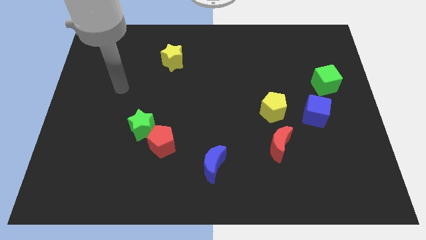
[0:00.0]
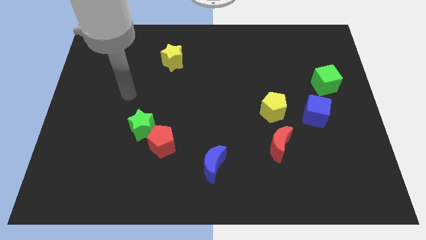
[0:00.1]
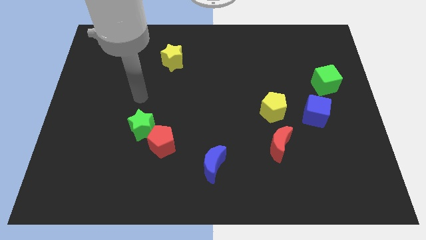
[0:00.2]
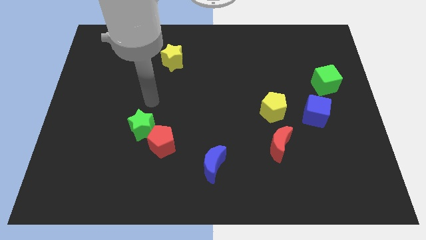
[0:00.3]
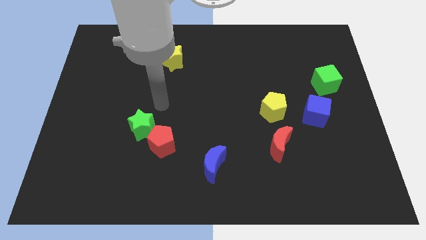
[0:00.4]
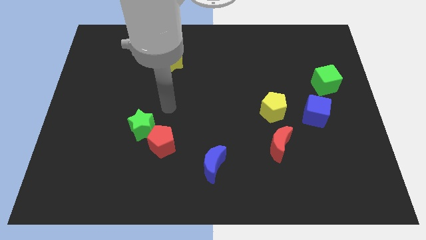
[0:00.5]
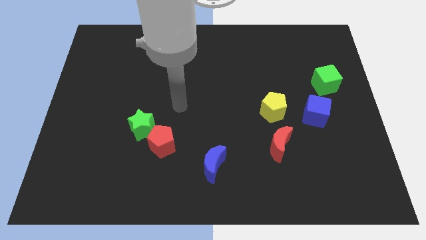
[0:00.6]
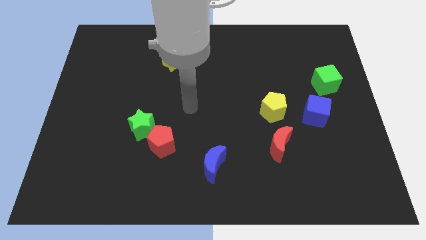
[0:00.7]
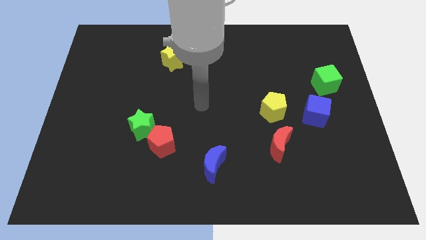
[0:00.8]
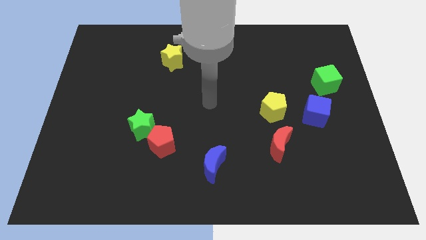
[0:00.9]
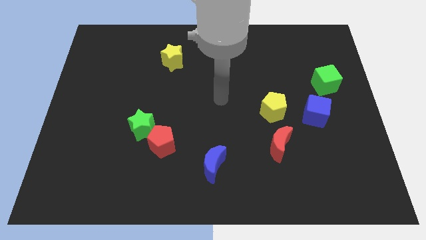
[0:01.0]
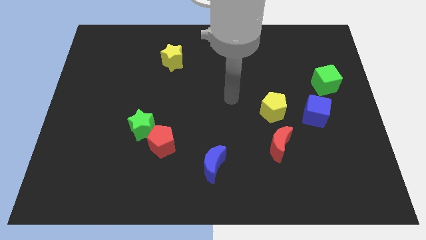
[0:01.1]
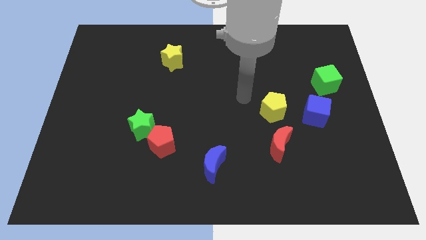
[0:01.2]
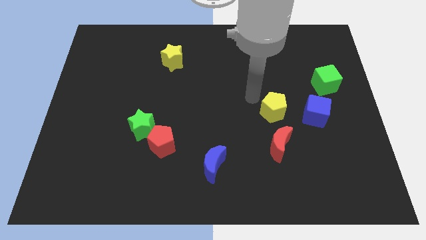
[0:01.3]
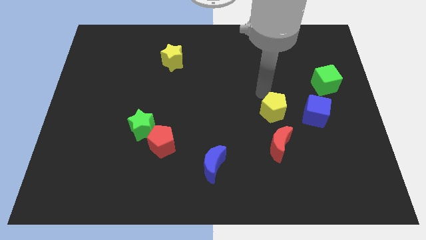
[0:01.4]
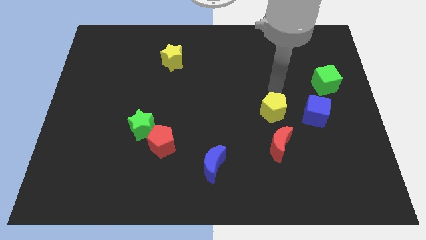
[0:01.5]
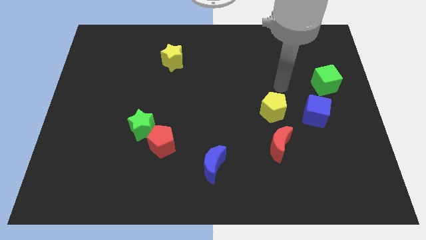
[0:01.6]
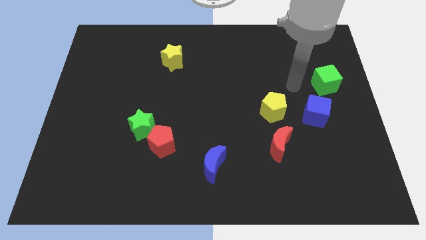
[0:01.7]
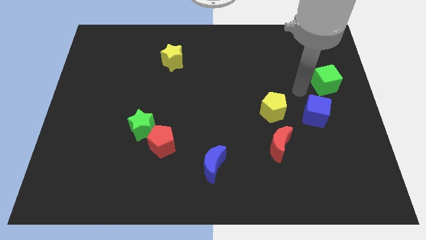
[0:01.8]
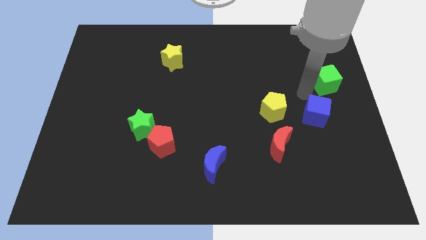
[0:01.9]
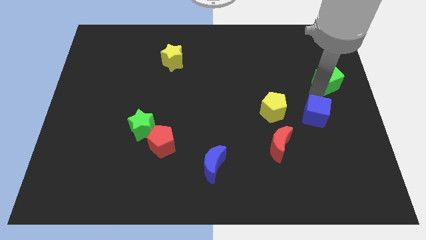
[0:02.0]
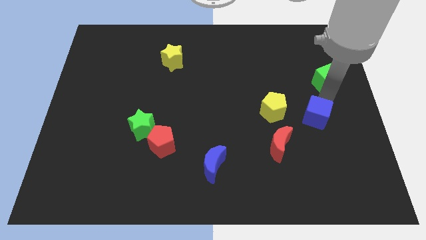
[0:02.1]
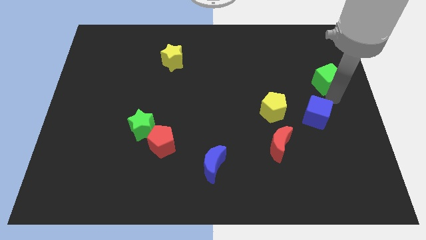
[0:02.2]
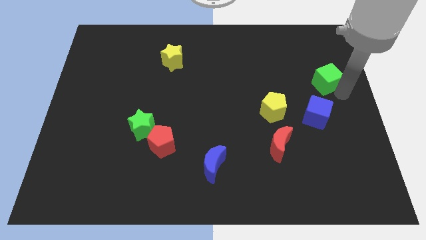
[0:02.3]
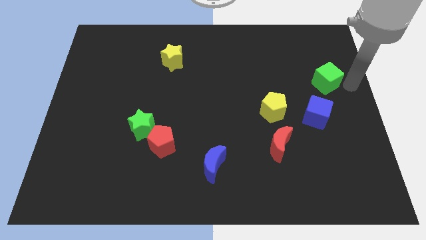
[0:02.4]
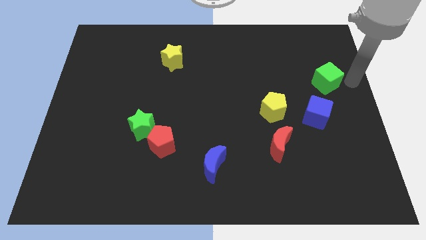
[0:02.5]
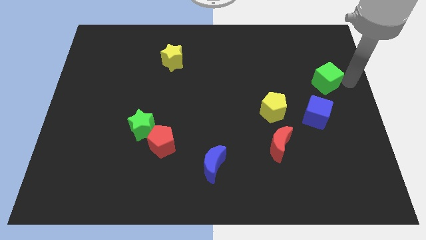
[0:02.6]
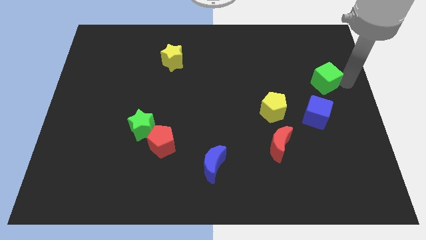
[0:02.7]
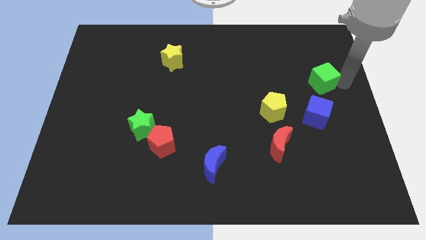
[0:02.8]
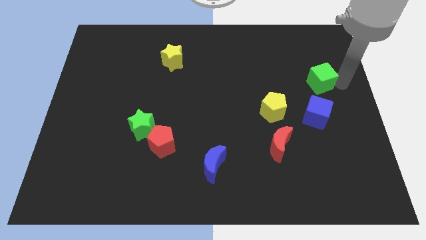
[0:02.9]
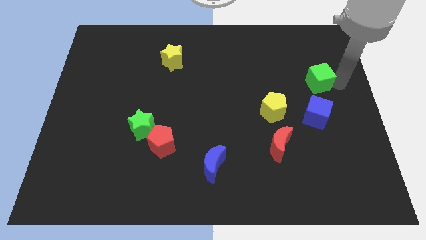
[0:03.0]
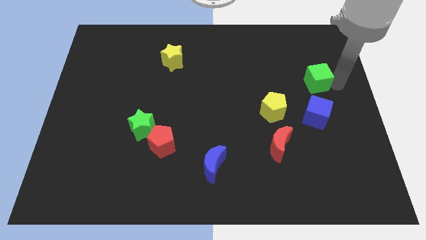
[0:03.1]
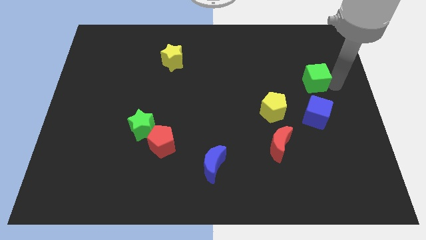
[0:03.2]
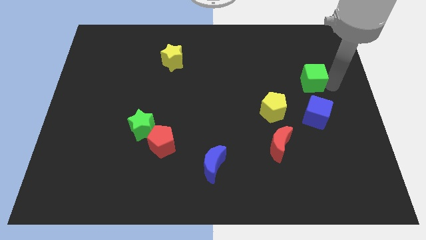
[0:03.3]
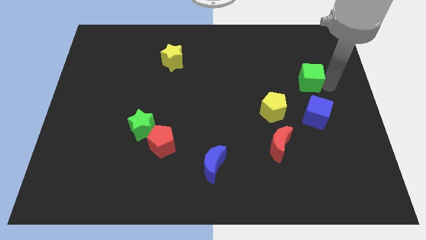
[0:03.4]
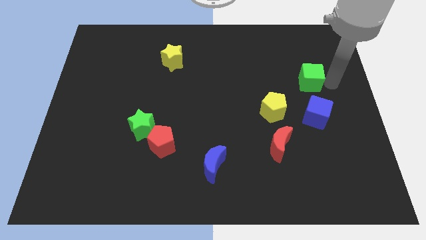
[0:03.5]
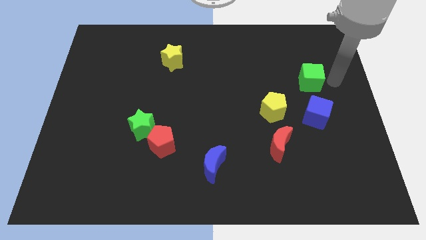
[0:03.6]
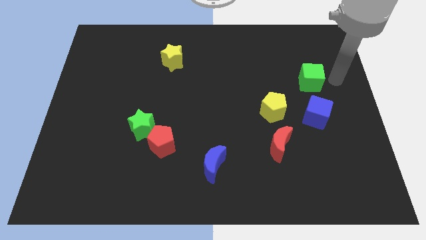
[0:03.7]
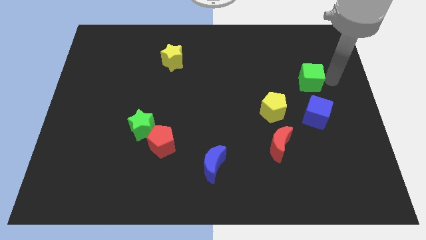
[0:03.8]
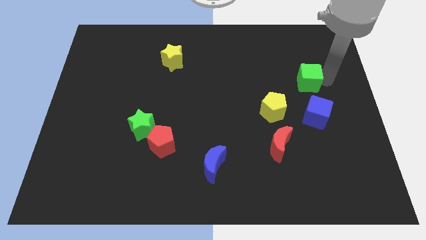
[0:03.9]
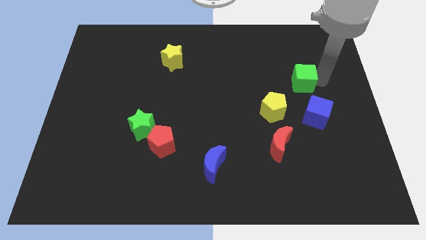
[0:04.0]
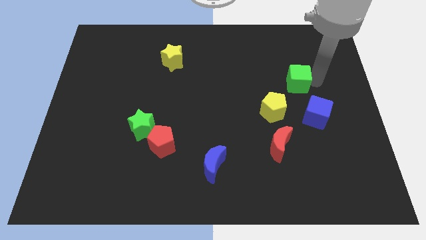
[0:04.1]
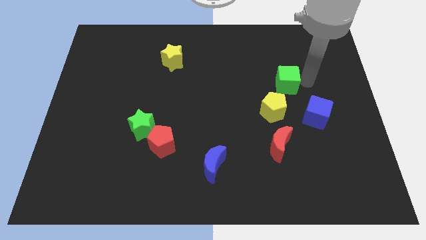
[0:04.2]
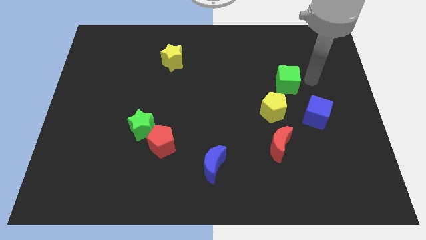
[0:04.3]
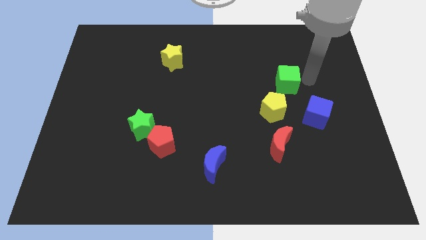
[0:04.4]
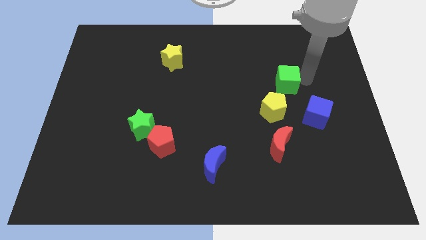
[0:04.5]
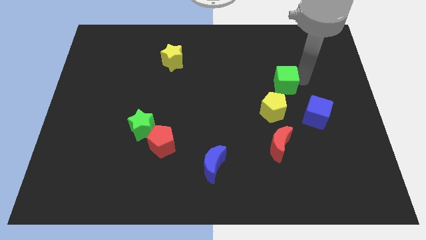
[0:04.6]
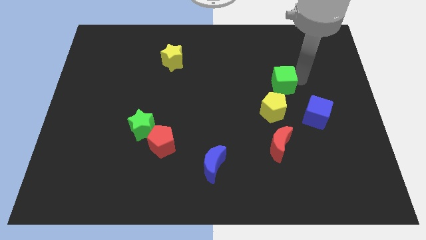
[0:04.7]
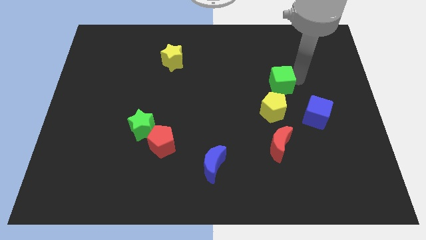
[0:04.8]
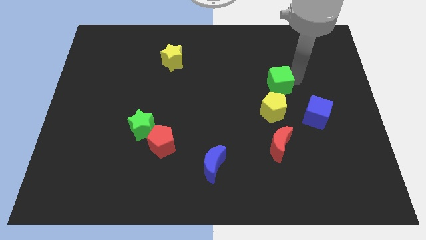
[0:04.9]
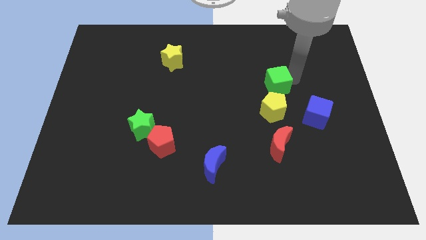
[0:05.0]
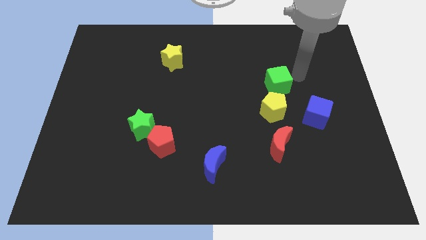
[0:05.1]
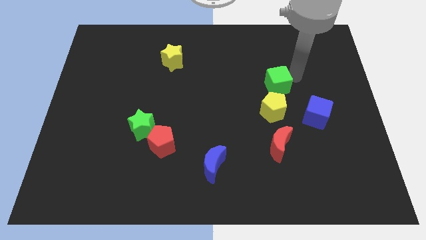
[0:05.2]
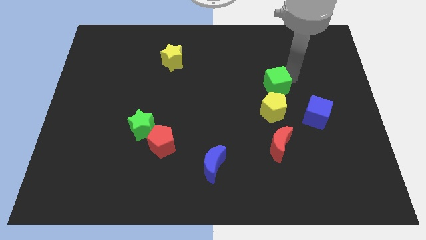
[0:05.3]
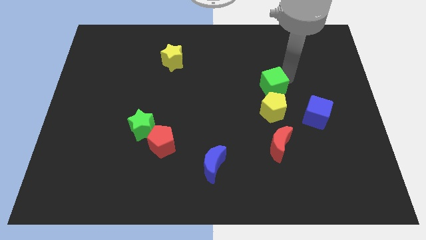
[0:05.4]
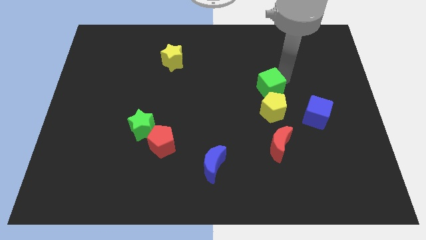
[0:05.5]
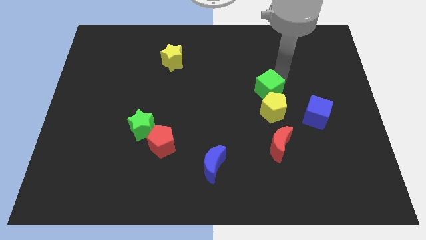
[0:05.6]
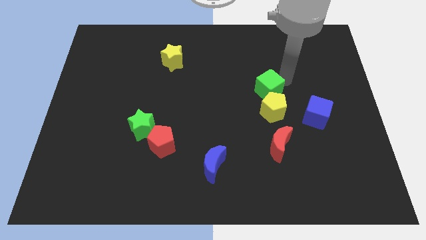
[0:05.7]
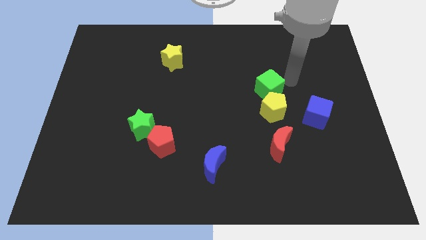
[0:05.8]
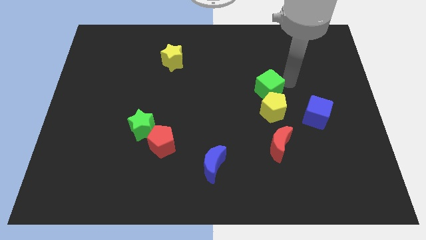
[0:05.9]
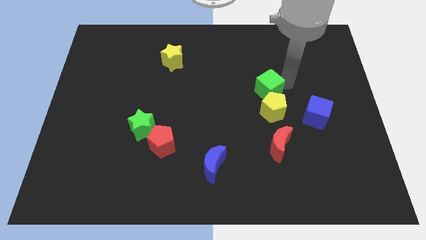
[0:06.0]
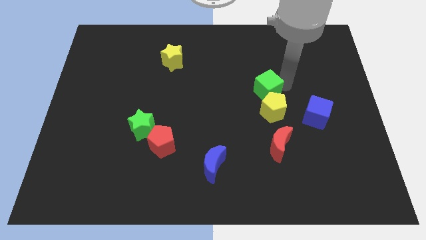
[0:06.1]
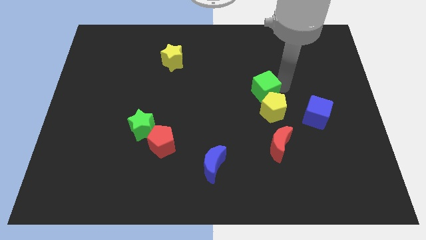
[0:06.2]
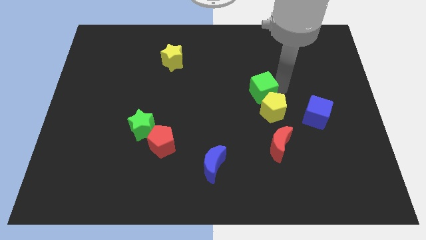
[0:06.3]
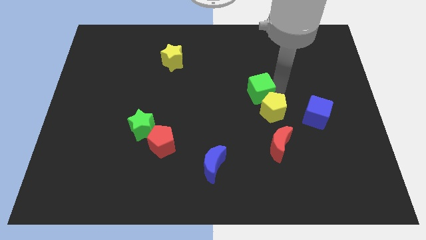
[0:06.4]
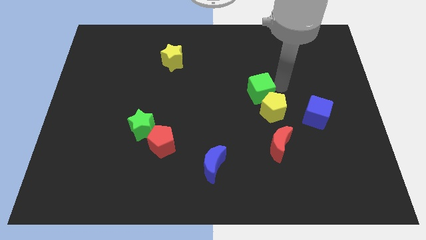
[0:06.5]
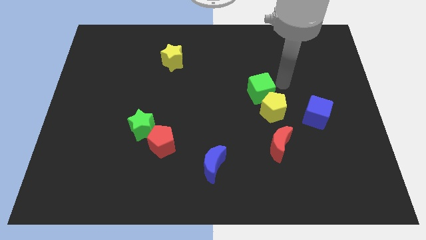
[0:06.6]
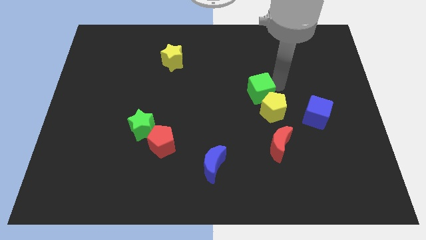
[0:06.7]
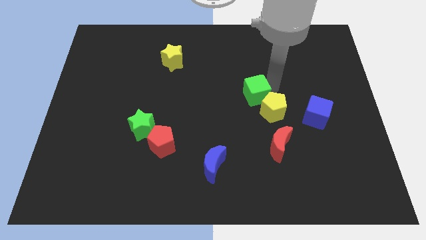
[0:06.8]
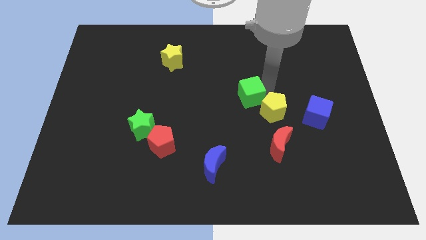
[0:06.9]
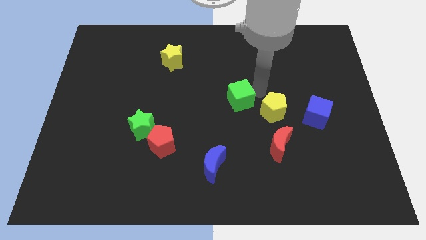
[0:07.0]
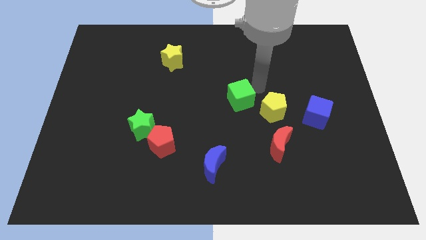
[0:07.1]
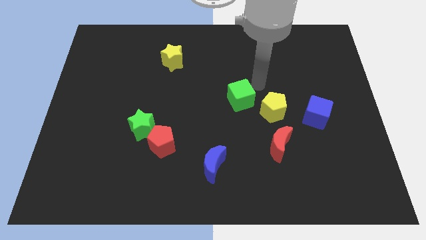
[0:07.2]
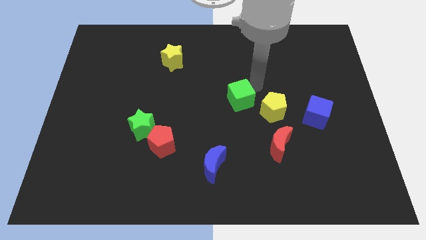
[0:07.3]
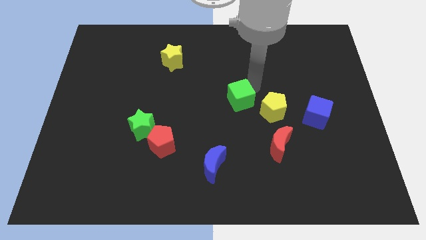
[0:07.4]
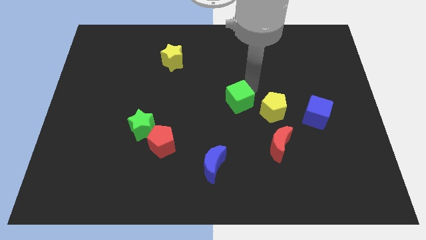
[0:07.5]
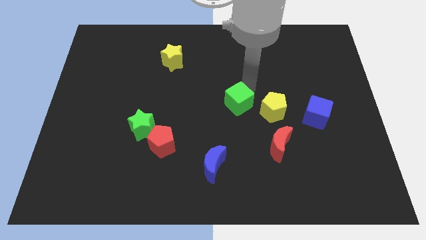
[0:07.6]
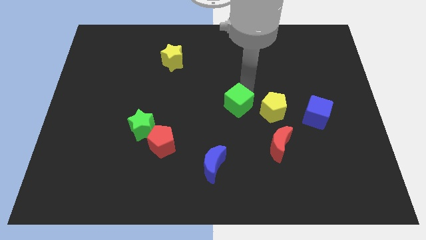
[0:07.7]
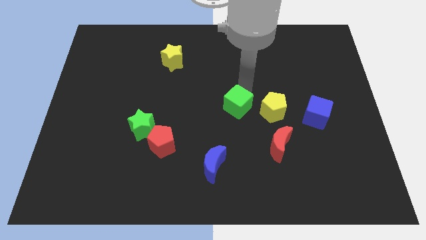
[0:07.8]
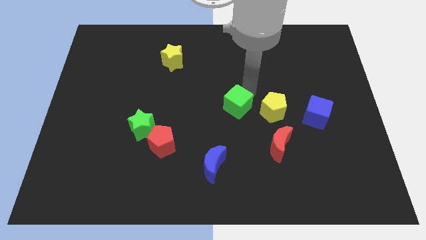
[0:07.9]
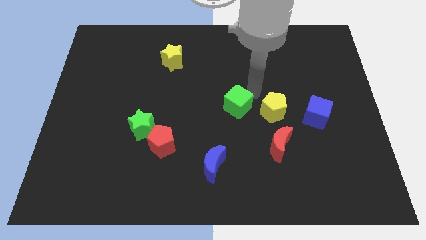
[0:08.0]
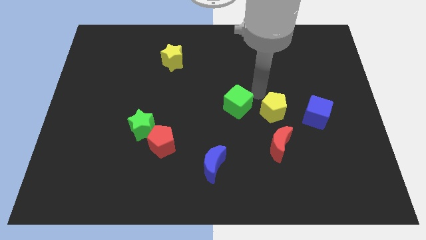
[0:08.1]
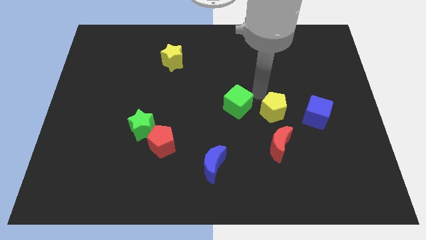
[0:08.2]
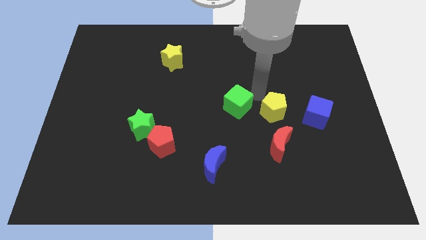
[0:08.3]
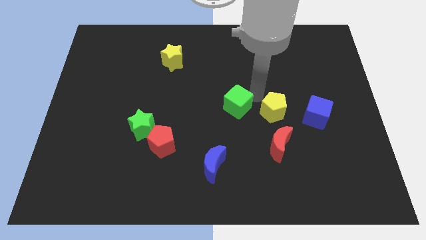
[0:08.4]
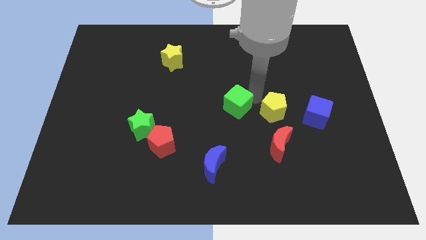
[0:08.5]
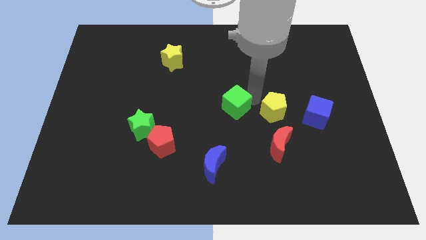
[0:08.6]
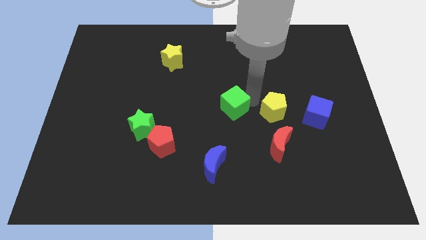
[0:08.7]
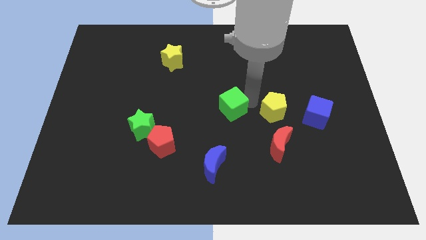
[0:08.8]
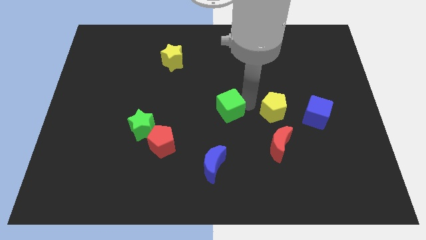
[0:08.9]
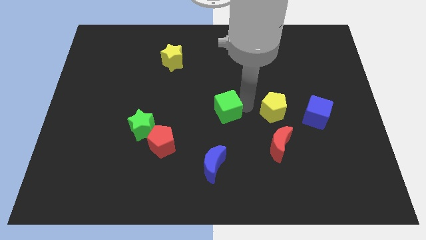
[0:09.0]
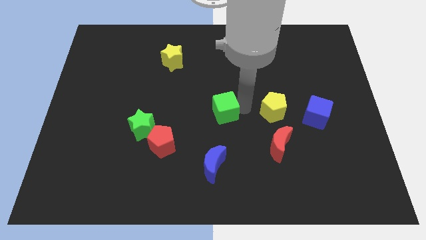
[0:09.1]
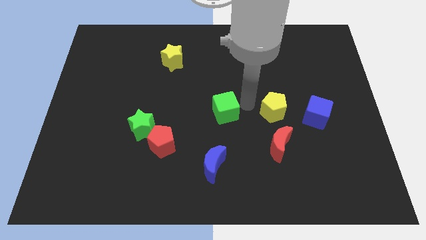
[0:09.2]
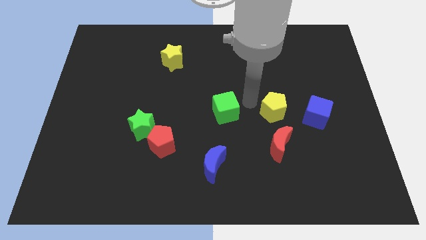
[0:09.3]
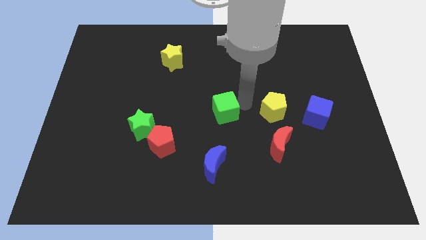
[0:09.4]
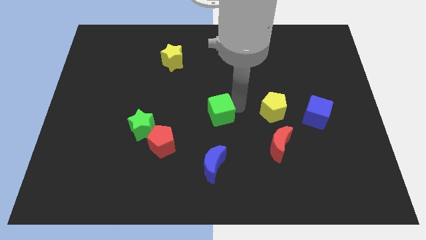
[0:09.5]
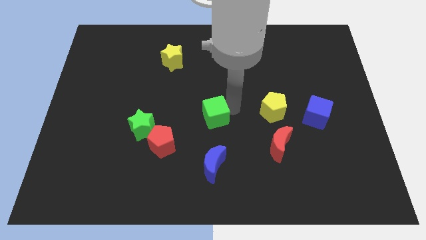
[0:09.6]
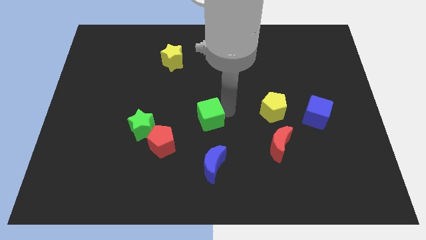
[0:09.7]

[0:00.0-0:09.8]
push the green cube to the top right of the red pentagon
